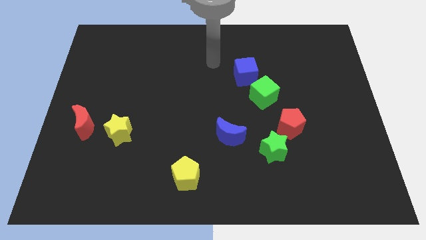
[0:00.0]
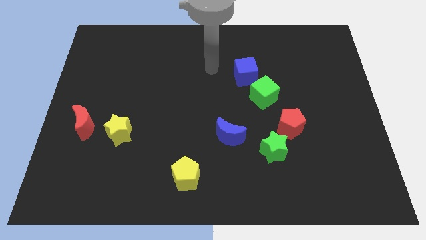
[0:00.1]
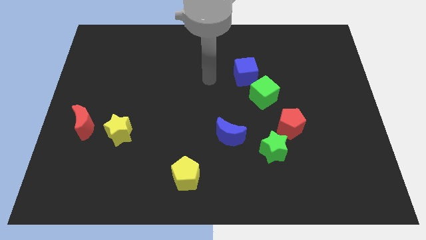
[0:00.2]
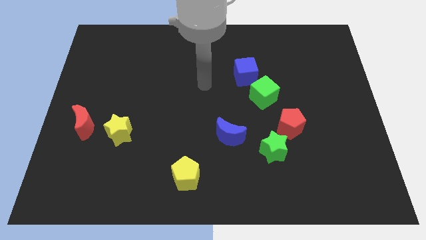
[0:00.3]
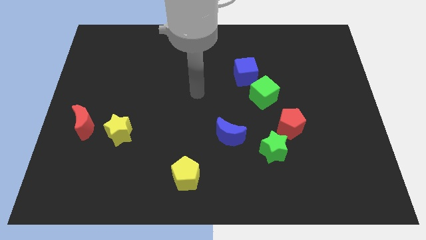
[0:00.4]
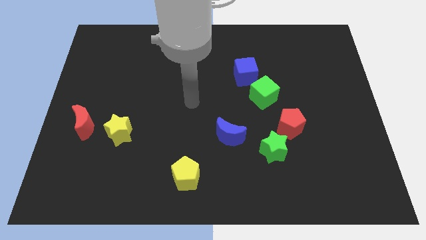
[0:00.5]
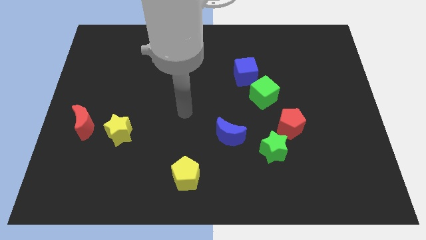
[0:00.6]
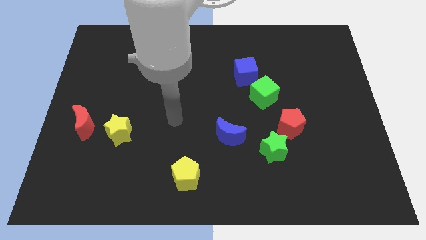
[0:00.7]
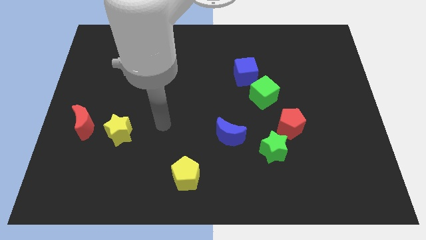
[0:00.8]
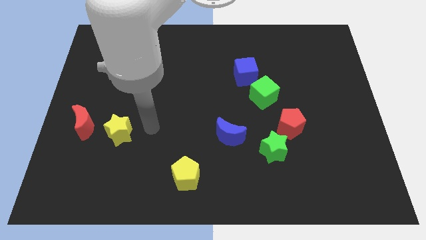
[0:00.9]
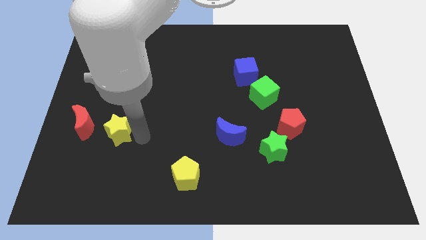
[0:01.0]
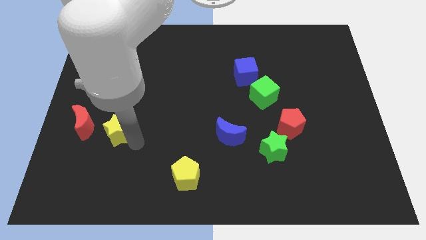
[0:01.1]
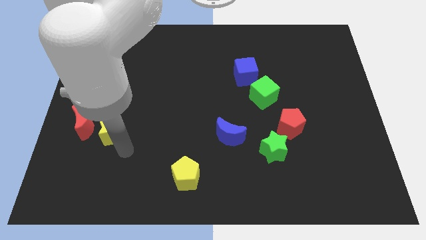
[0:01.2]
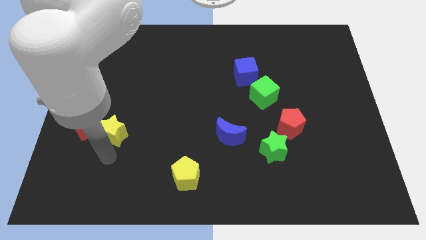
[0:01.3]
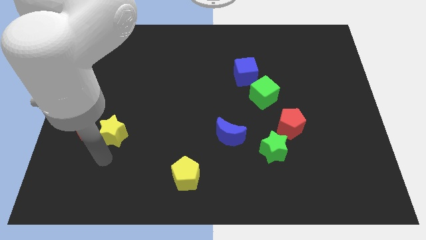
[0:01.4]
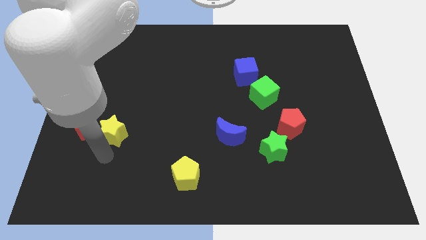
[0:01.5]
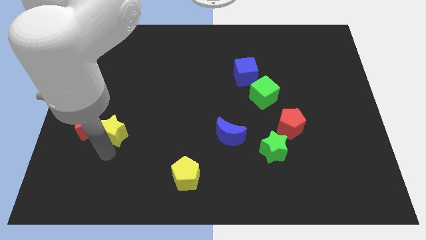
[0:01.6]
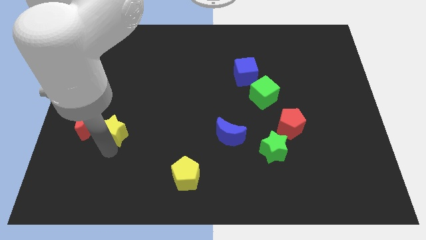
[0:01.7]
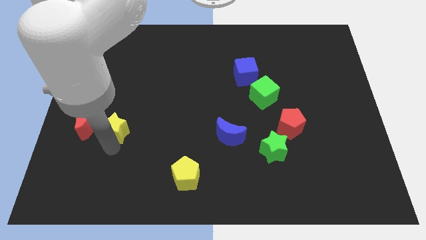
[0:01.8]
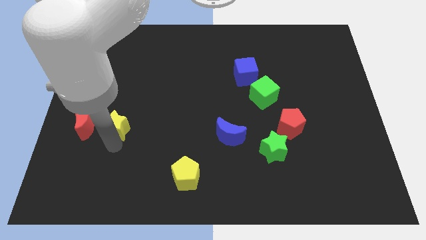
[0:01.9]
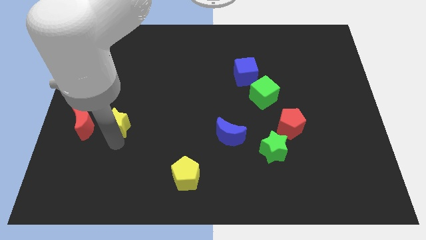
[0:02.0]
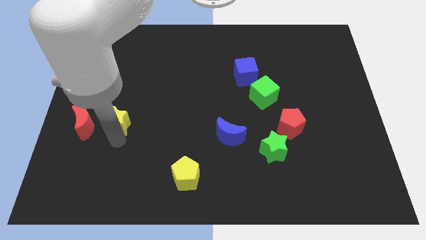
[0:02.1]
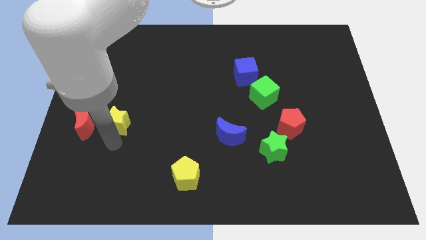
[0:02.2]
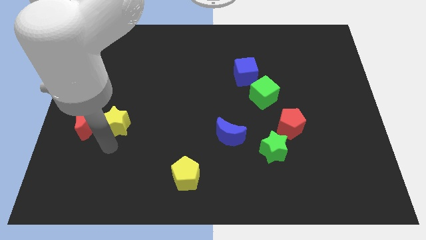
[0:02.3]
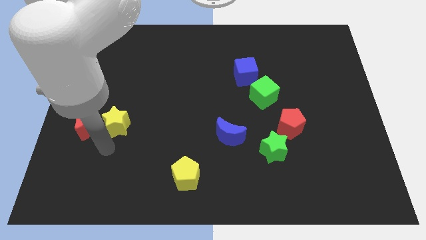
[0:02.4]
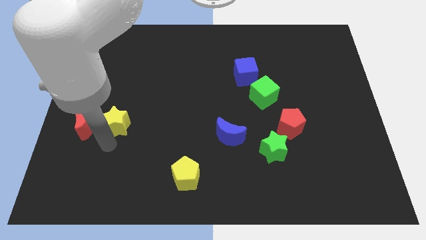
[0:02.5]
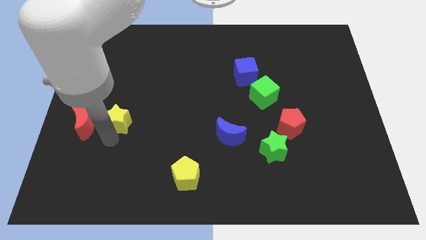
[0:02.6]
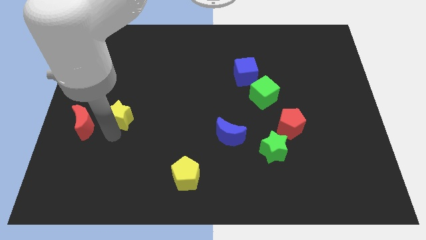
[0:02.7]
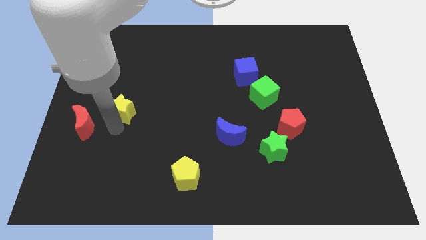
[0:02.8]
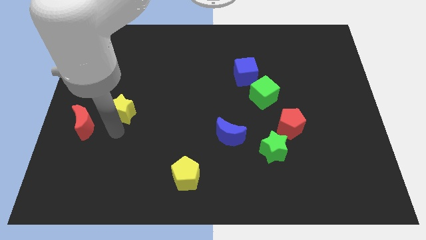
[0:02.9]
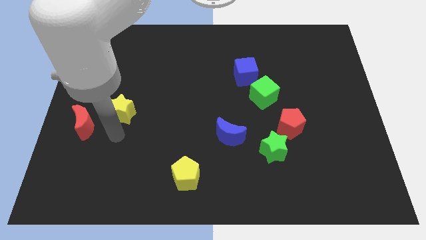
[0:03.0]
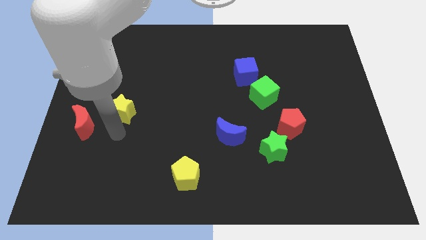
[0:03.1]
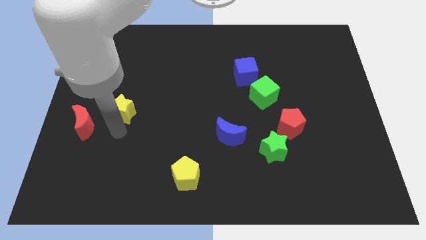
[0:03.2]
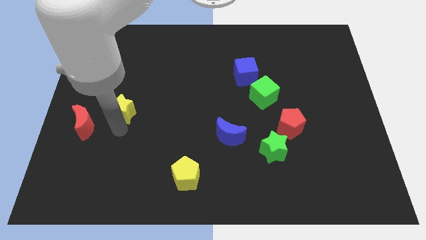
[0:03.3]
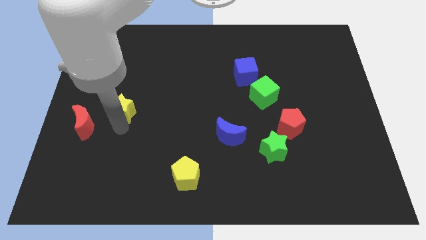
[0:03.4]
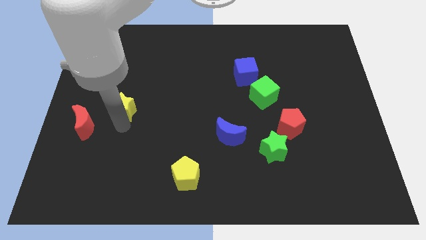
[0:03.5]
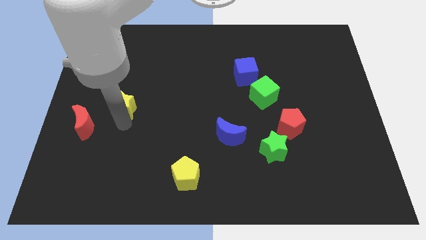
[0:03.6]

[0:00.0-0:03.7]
push the yellow star up a bit

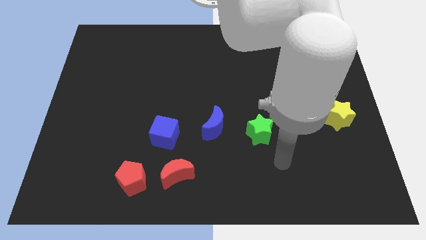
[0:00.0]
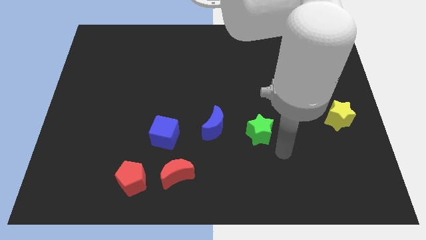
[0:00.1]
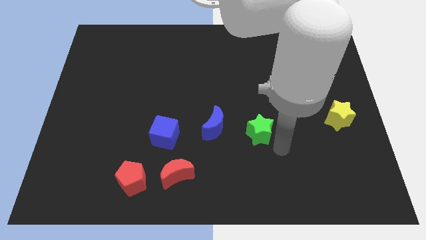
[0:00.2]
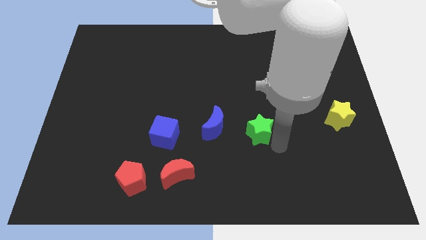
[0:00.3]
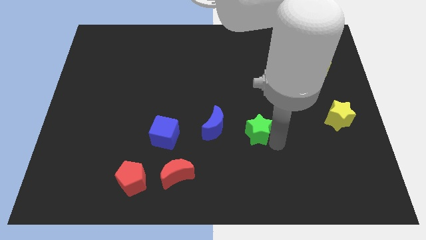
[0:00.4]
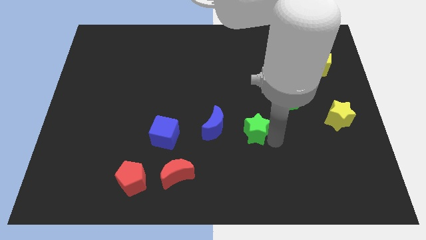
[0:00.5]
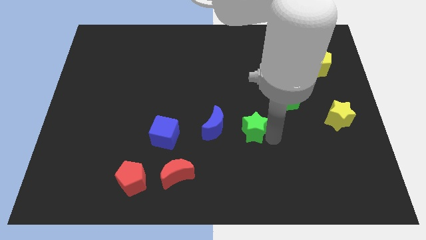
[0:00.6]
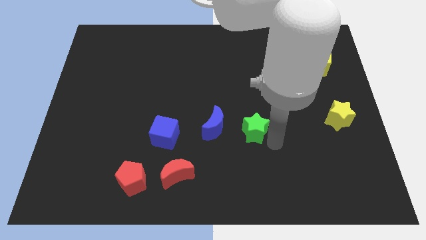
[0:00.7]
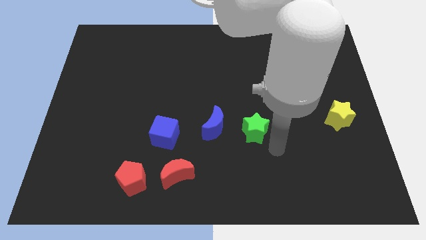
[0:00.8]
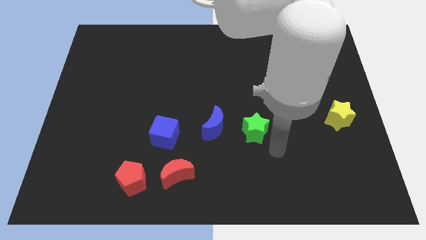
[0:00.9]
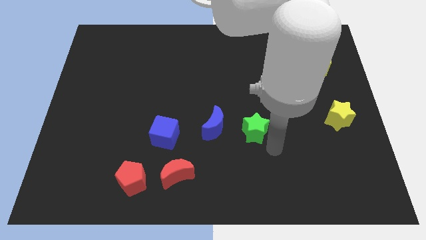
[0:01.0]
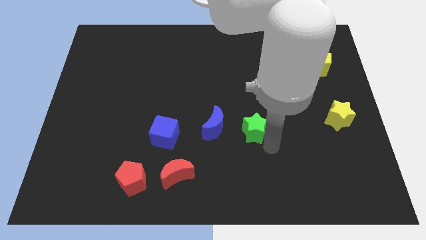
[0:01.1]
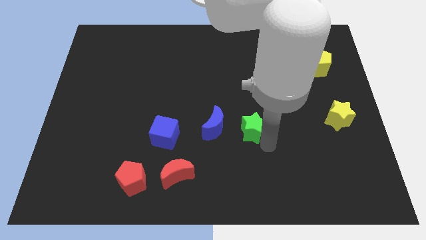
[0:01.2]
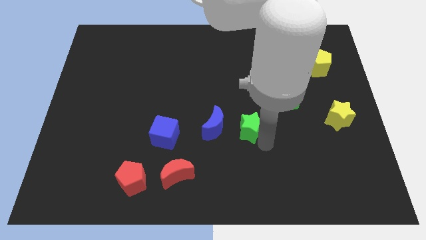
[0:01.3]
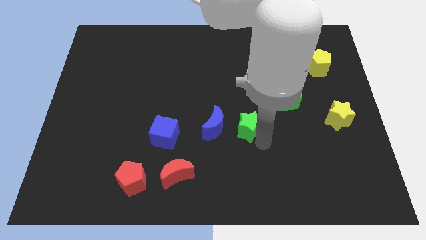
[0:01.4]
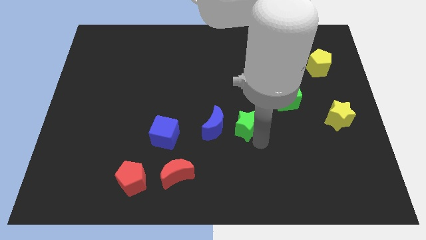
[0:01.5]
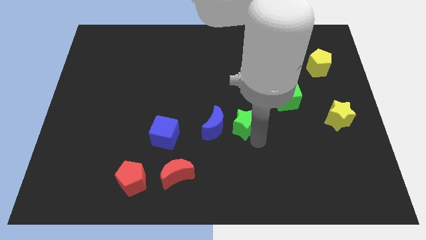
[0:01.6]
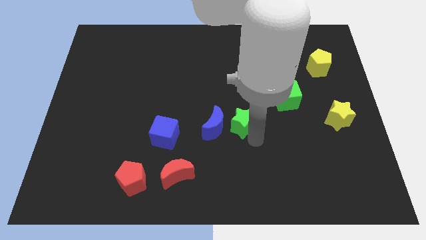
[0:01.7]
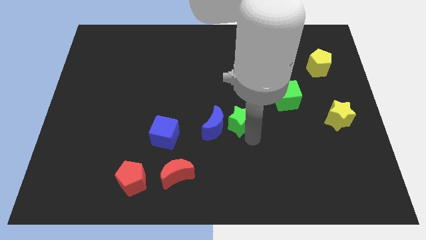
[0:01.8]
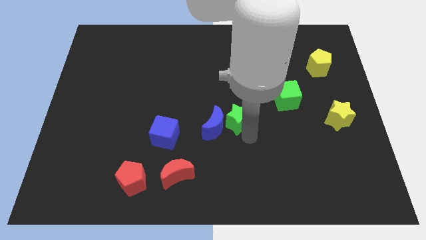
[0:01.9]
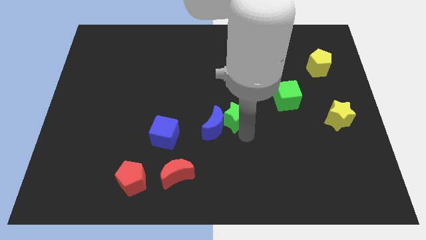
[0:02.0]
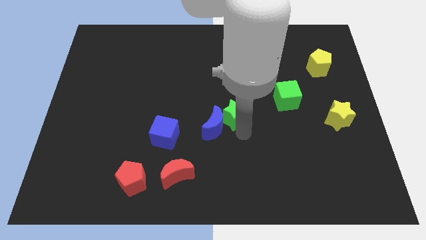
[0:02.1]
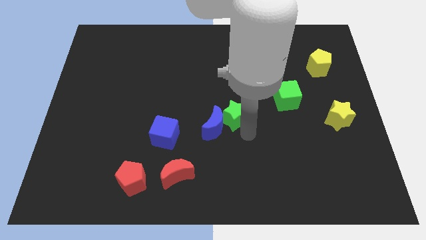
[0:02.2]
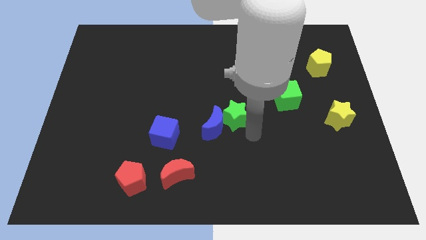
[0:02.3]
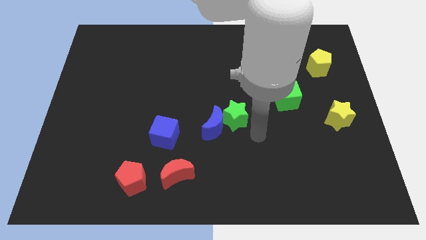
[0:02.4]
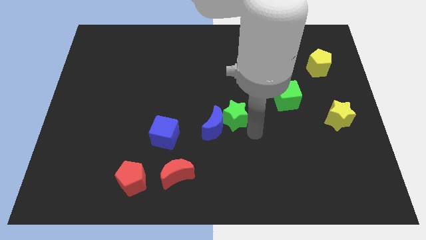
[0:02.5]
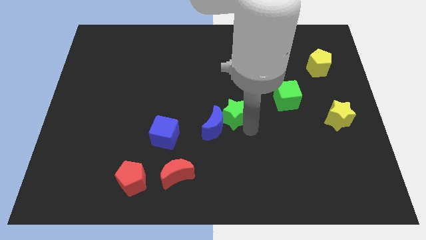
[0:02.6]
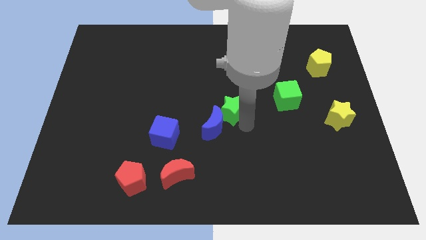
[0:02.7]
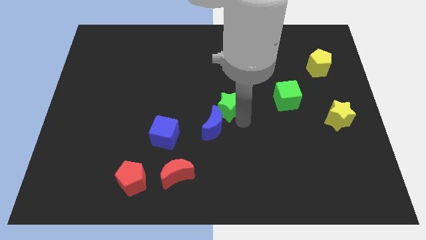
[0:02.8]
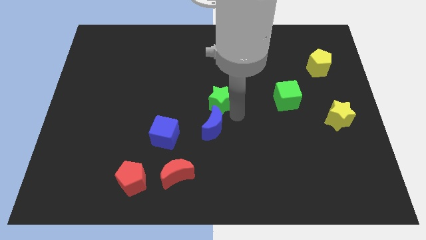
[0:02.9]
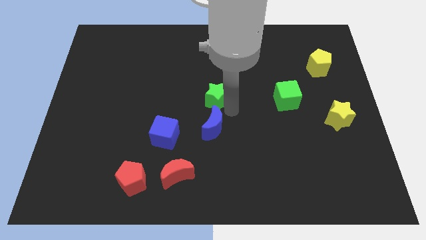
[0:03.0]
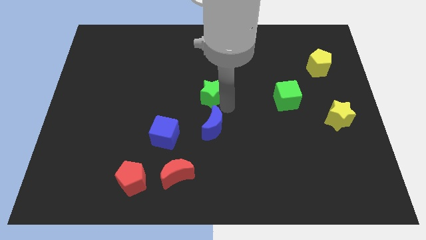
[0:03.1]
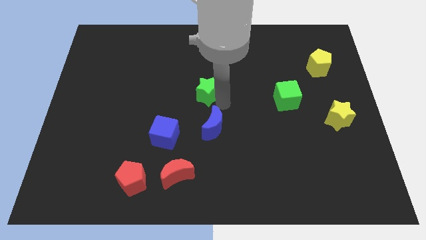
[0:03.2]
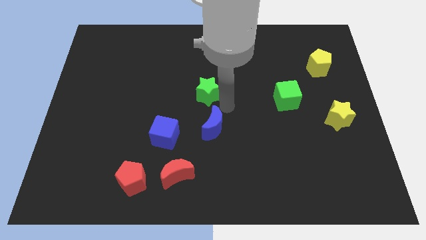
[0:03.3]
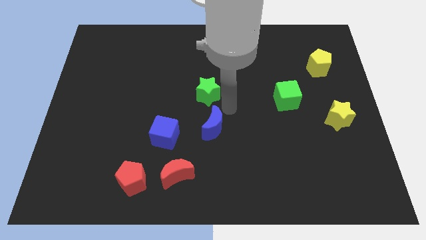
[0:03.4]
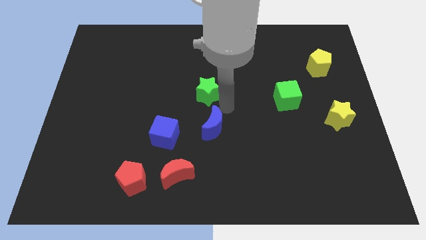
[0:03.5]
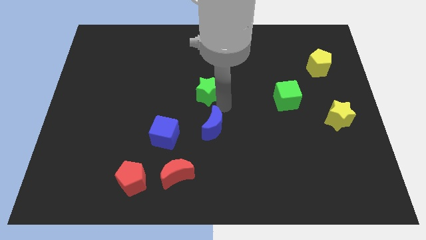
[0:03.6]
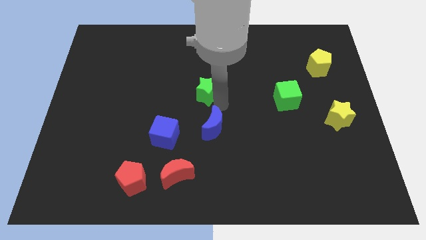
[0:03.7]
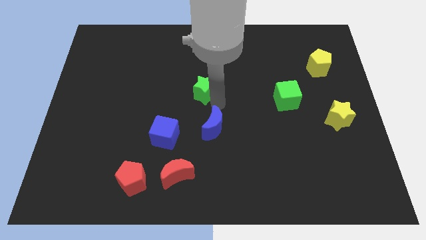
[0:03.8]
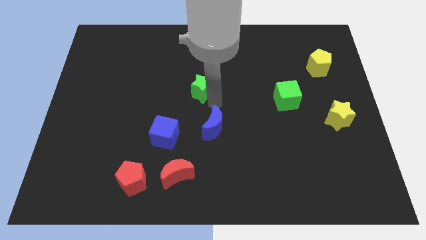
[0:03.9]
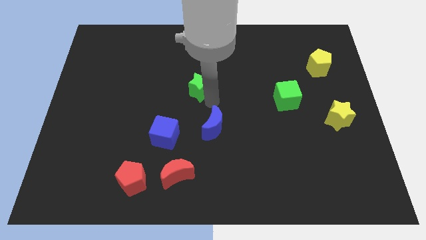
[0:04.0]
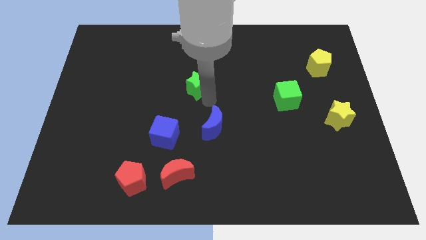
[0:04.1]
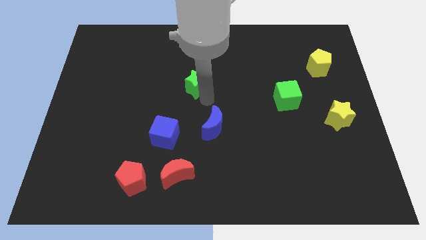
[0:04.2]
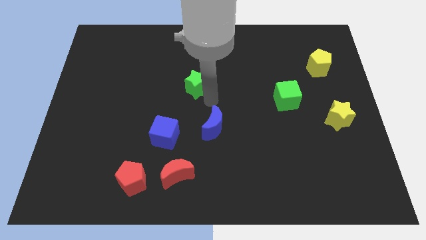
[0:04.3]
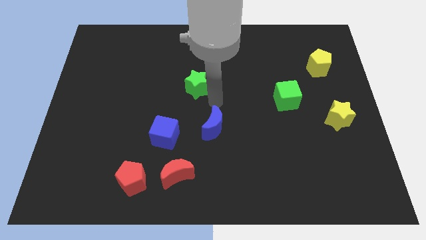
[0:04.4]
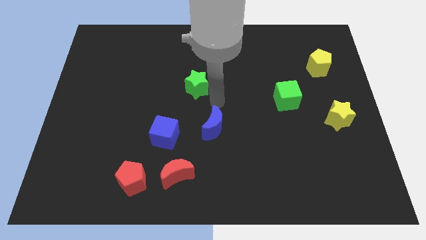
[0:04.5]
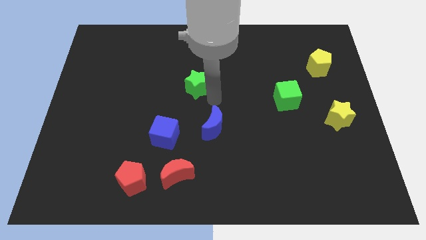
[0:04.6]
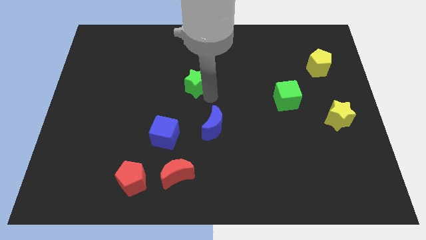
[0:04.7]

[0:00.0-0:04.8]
move the green star up and left diagonally
